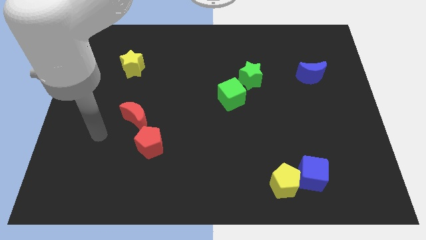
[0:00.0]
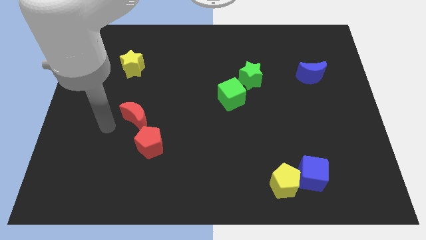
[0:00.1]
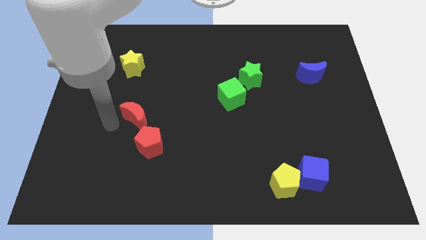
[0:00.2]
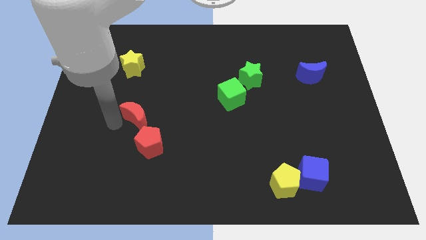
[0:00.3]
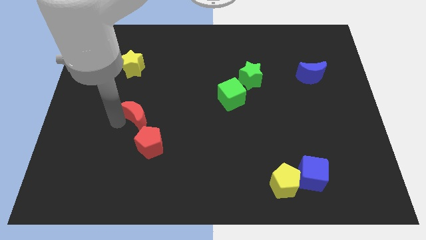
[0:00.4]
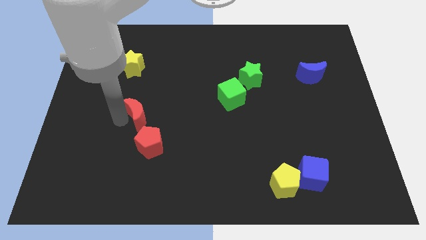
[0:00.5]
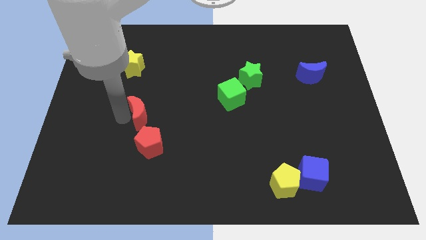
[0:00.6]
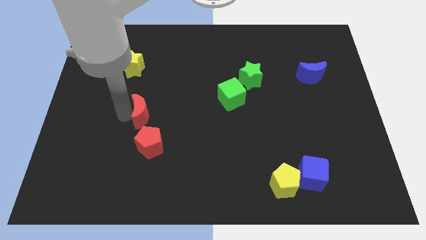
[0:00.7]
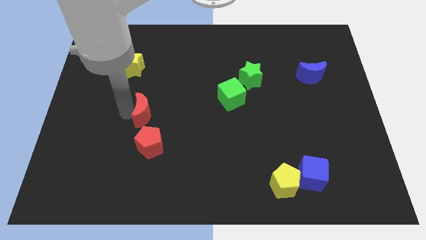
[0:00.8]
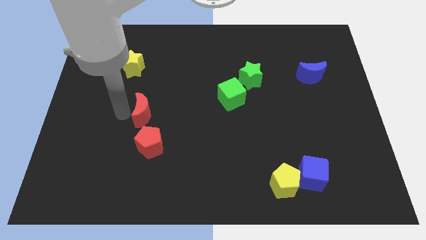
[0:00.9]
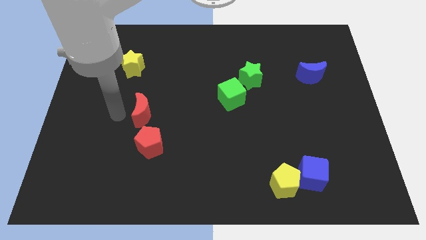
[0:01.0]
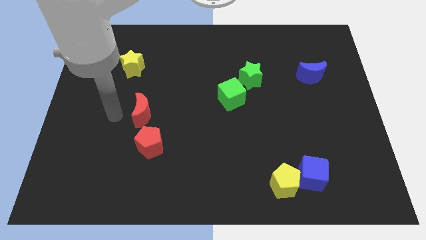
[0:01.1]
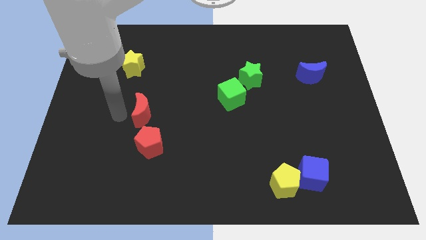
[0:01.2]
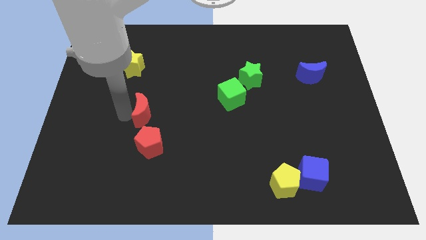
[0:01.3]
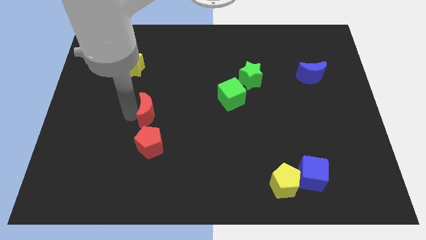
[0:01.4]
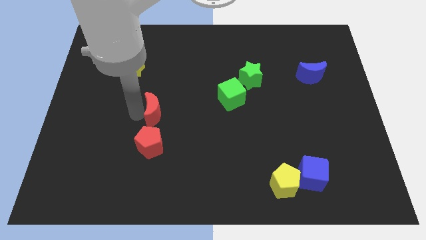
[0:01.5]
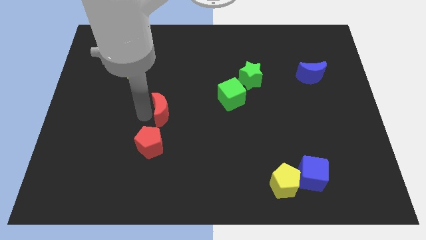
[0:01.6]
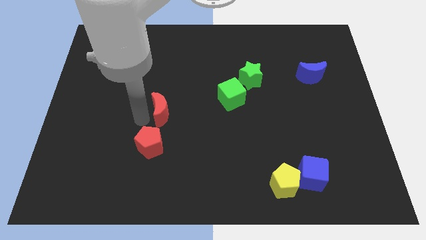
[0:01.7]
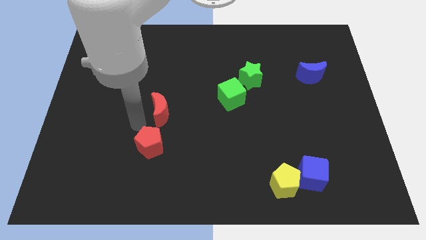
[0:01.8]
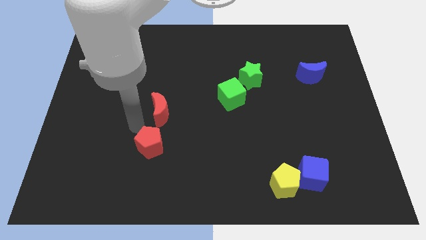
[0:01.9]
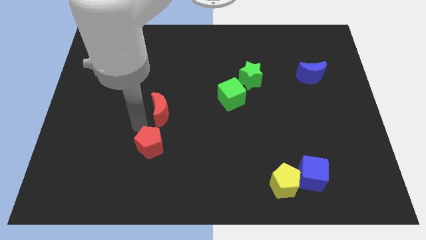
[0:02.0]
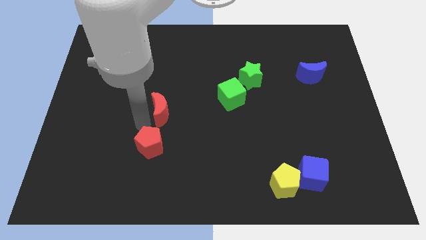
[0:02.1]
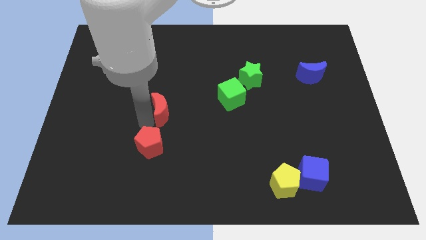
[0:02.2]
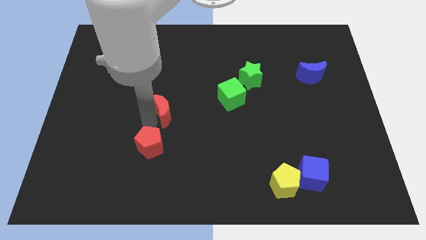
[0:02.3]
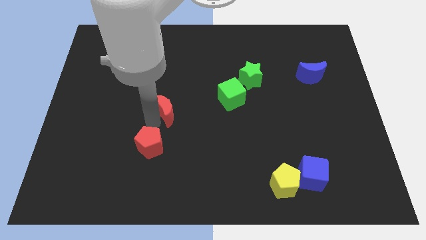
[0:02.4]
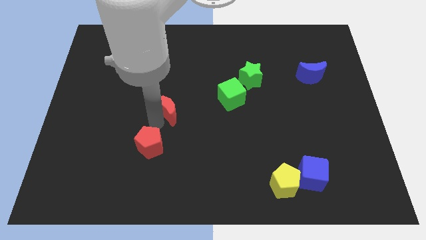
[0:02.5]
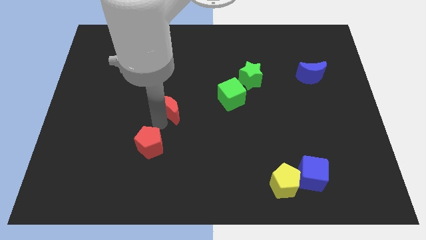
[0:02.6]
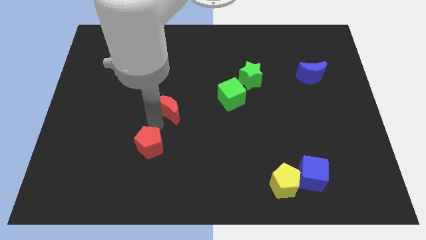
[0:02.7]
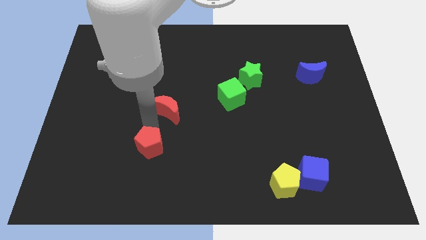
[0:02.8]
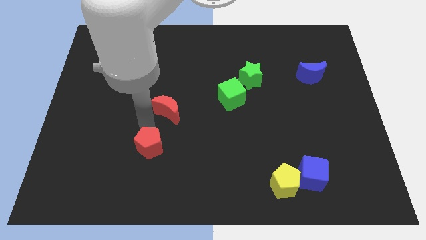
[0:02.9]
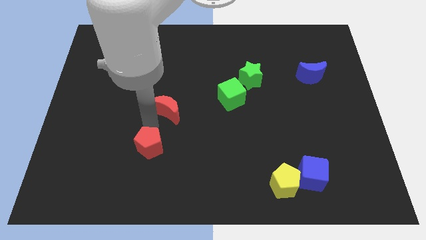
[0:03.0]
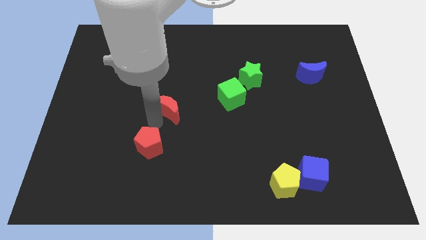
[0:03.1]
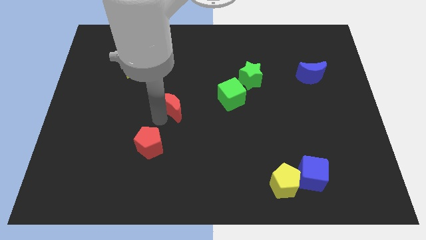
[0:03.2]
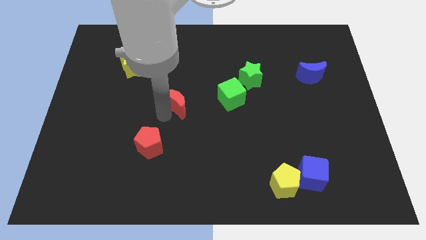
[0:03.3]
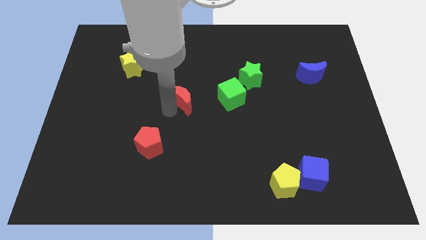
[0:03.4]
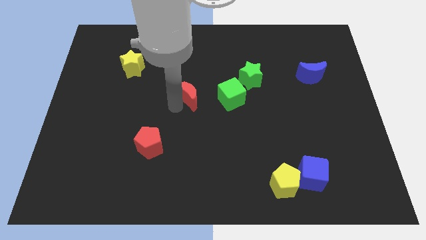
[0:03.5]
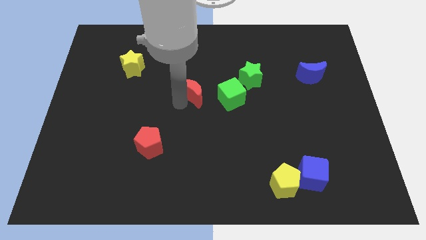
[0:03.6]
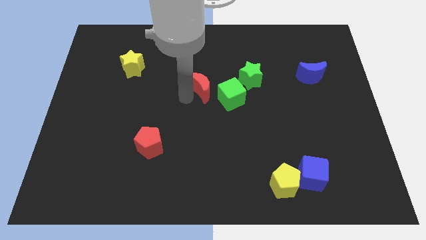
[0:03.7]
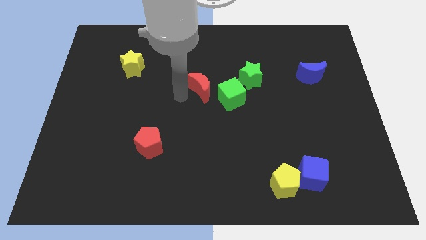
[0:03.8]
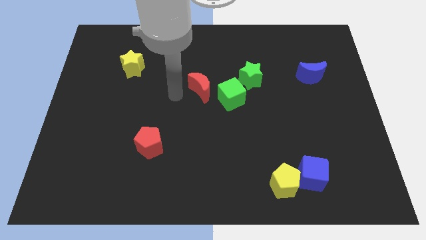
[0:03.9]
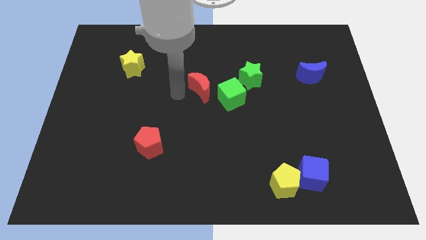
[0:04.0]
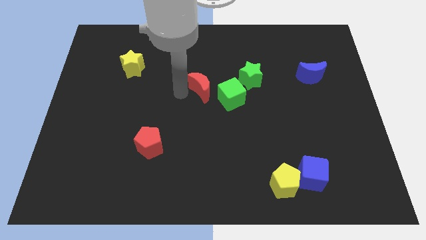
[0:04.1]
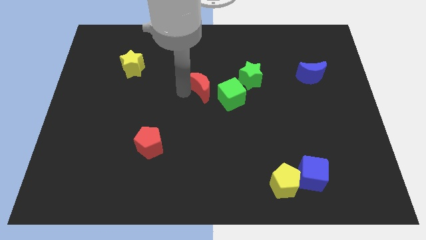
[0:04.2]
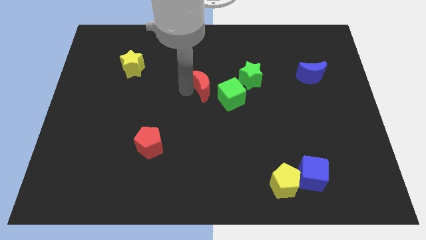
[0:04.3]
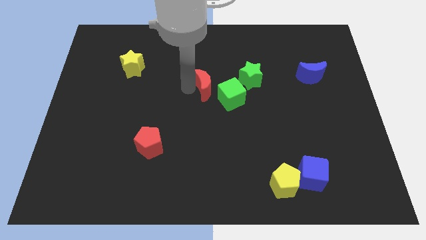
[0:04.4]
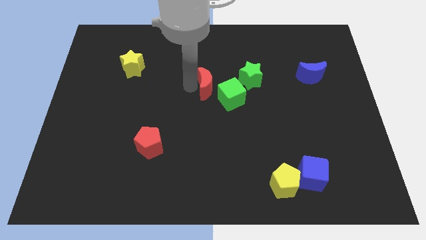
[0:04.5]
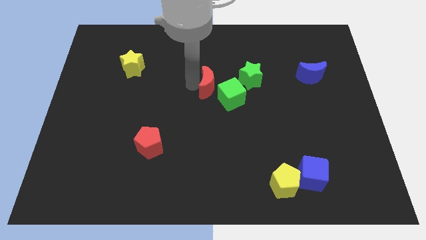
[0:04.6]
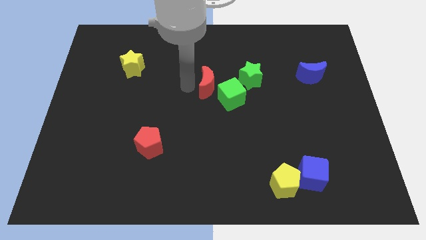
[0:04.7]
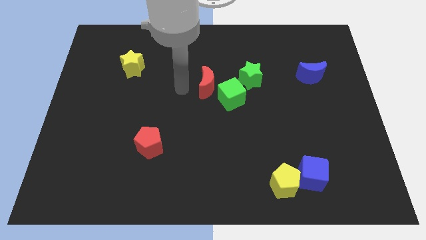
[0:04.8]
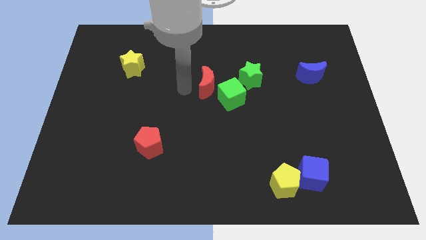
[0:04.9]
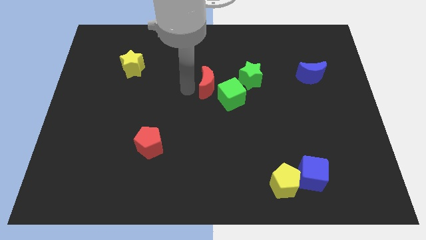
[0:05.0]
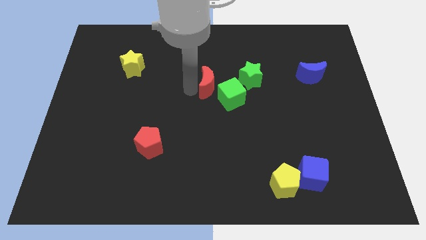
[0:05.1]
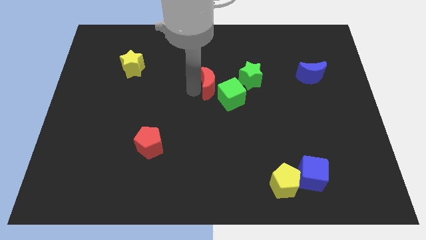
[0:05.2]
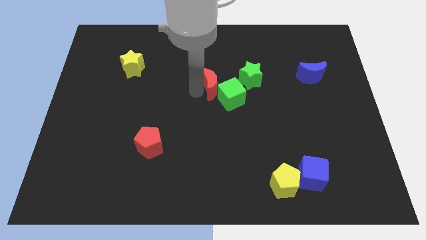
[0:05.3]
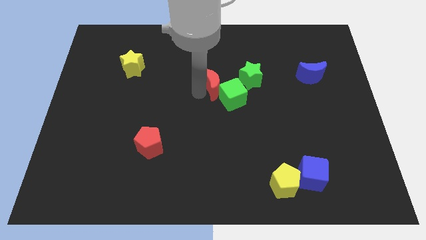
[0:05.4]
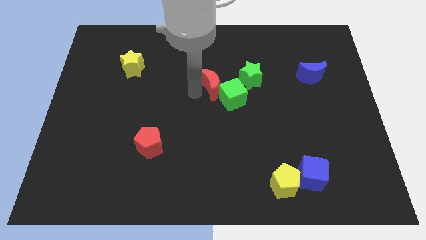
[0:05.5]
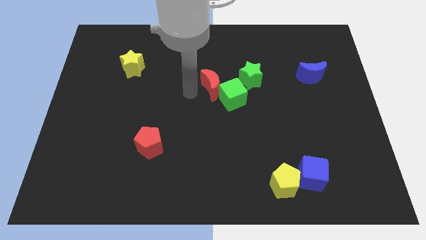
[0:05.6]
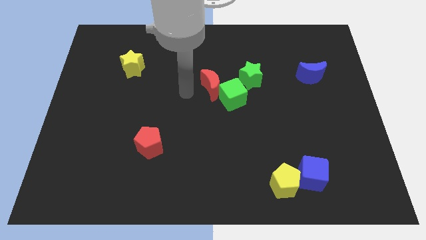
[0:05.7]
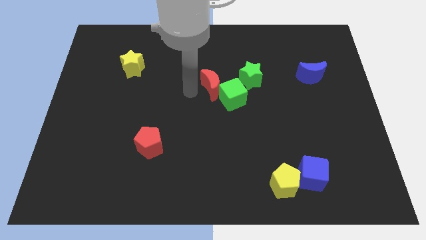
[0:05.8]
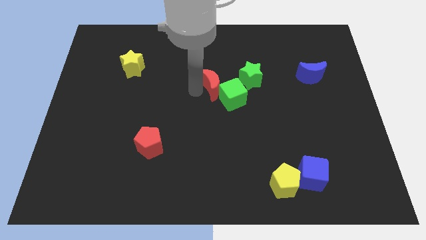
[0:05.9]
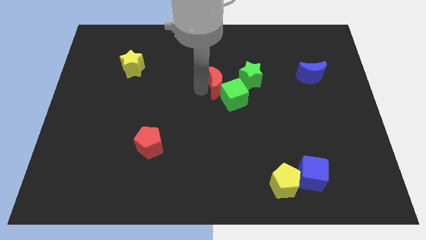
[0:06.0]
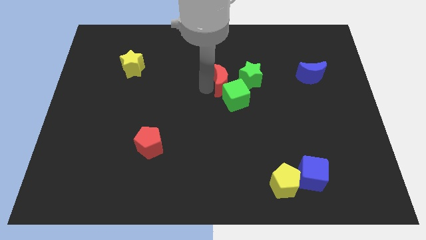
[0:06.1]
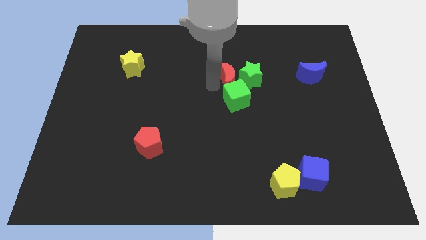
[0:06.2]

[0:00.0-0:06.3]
slide the red moon close to the green star

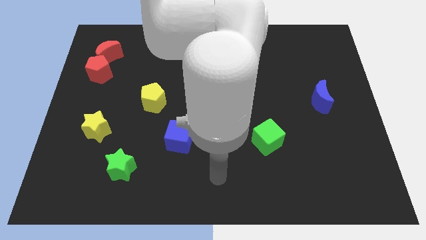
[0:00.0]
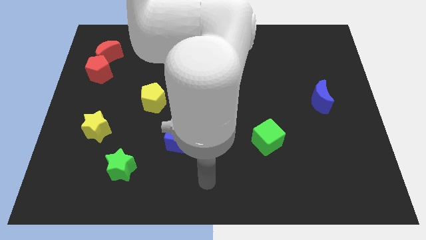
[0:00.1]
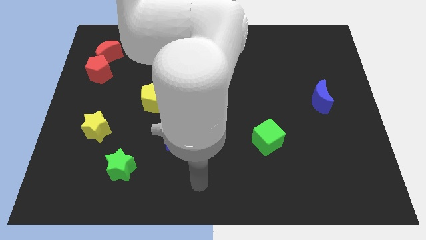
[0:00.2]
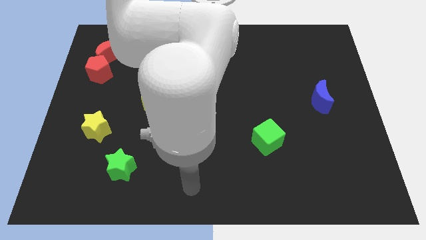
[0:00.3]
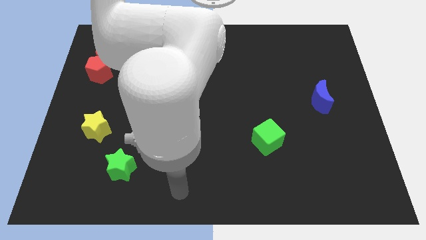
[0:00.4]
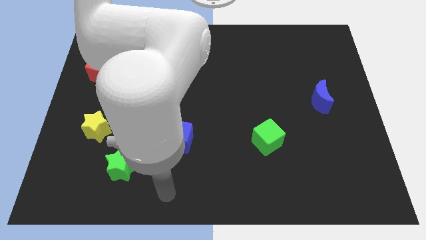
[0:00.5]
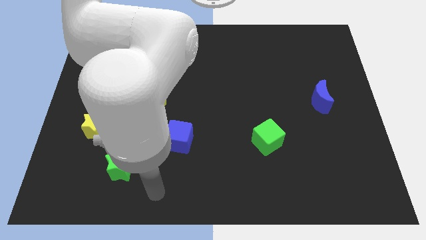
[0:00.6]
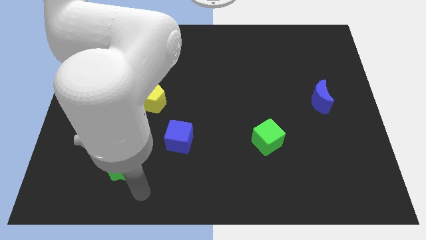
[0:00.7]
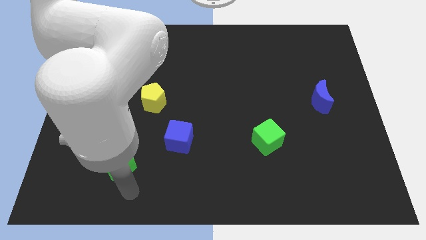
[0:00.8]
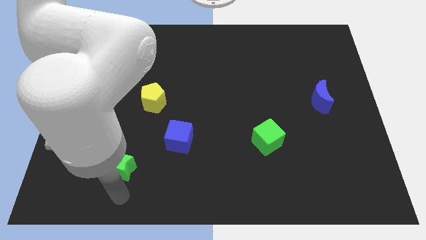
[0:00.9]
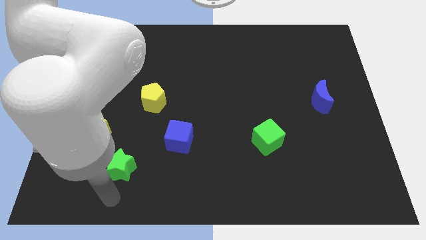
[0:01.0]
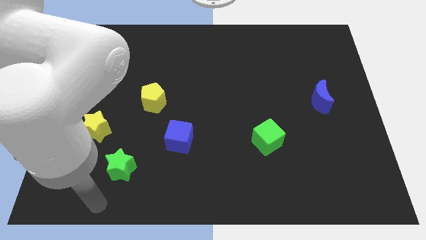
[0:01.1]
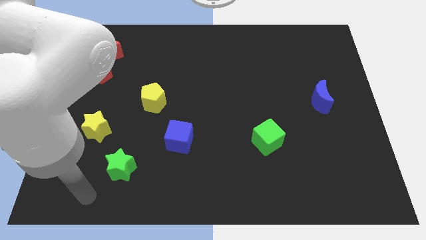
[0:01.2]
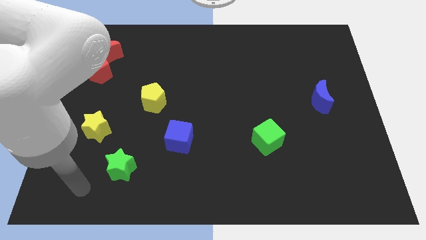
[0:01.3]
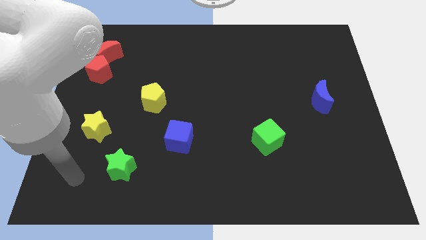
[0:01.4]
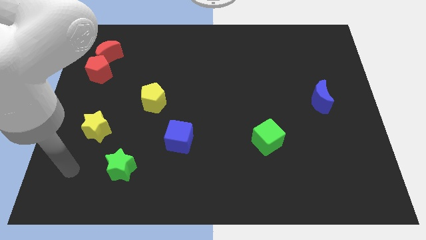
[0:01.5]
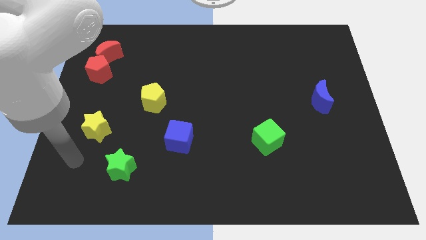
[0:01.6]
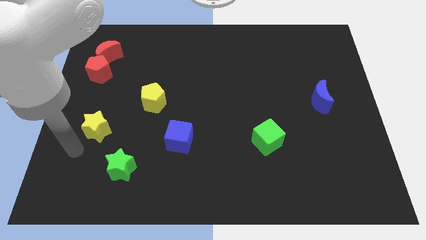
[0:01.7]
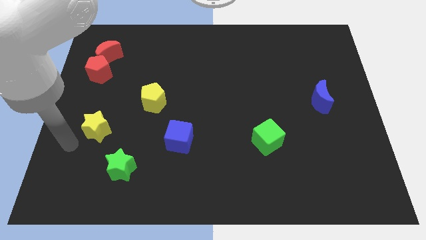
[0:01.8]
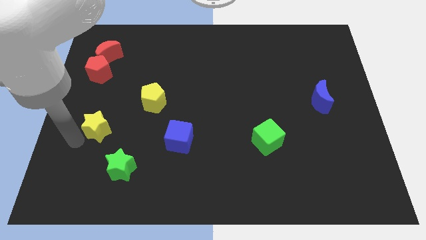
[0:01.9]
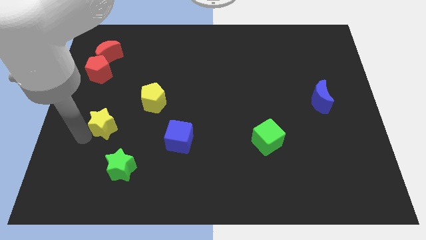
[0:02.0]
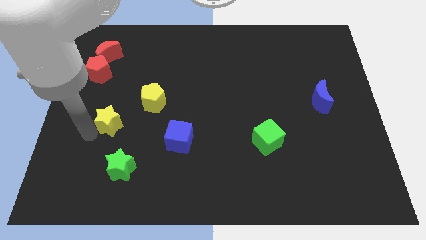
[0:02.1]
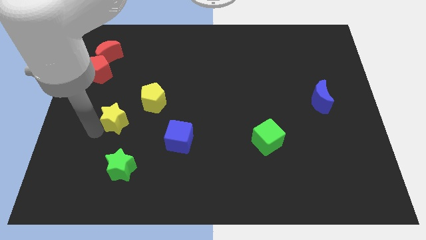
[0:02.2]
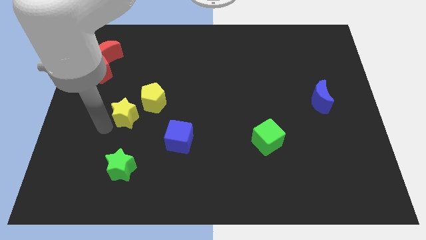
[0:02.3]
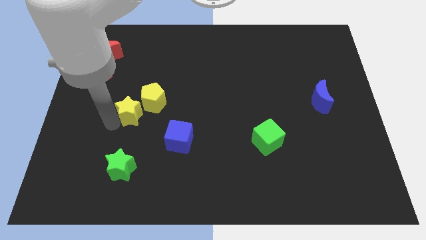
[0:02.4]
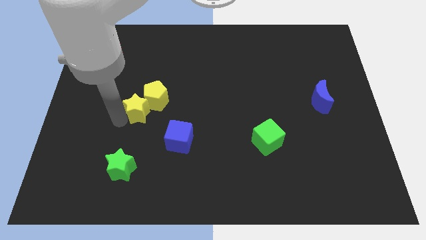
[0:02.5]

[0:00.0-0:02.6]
push the yellow star towards the yellow pentagon
